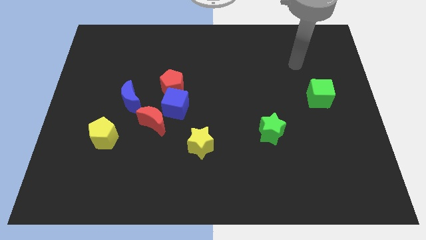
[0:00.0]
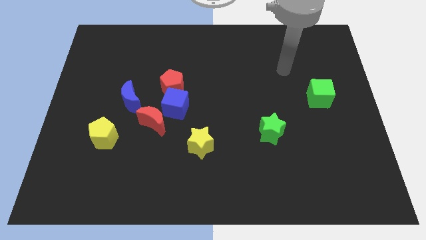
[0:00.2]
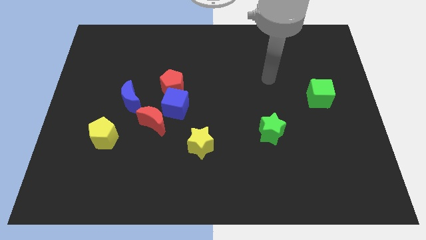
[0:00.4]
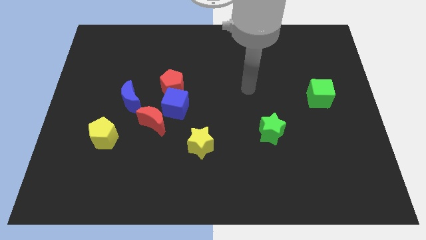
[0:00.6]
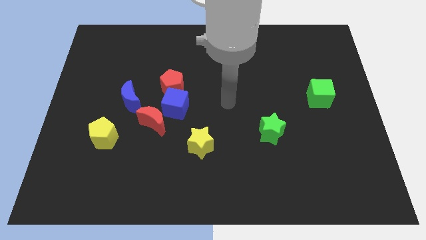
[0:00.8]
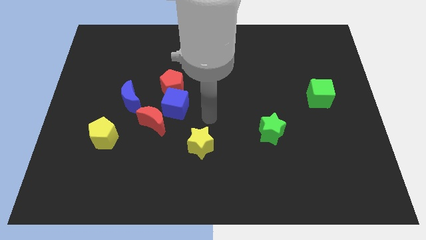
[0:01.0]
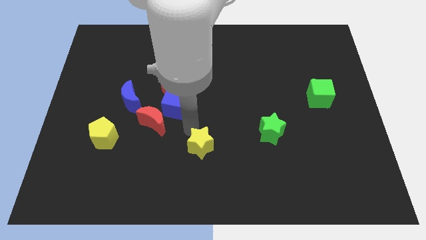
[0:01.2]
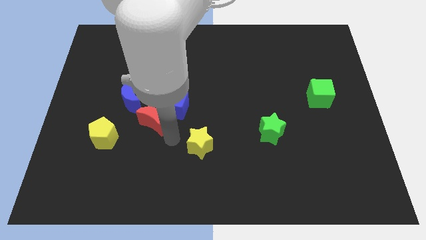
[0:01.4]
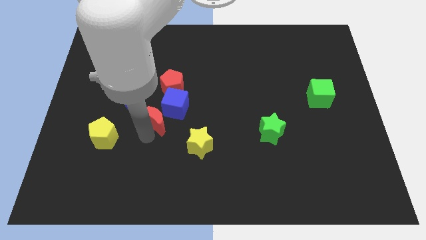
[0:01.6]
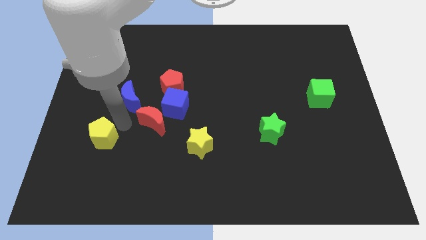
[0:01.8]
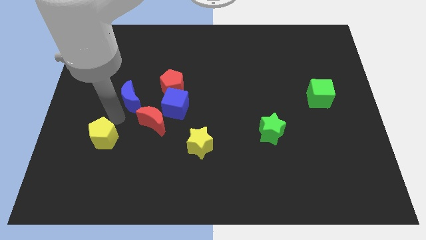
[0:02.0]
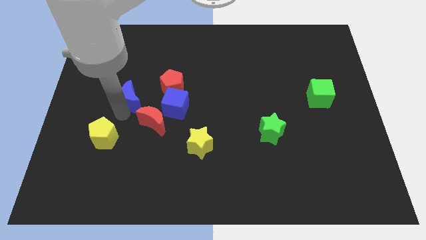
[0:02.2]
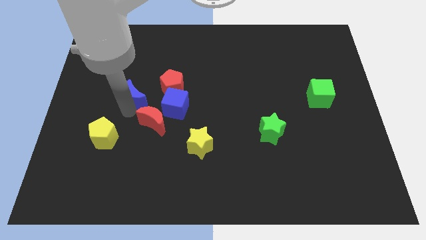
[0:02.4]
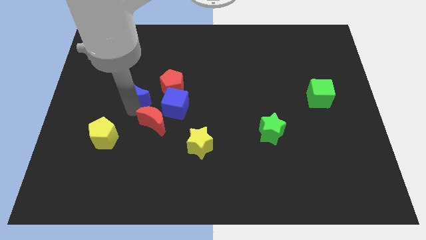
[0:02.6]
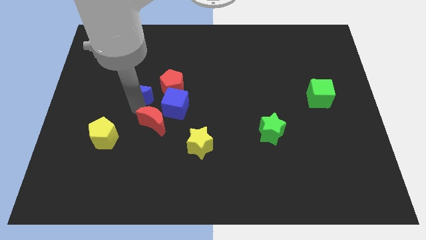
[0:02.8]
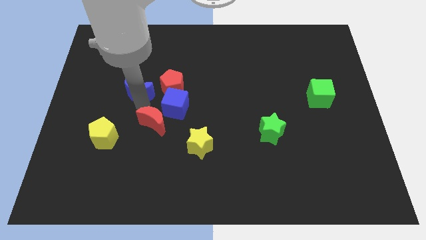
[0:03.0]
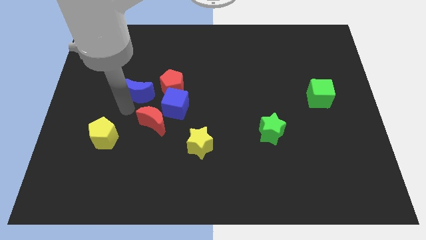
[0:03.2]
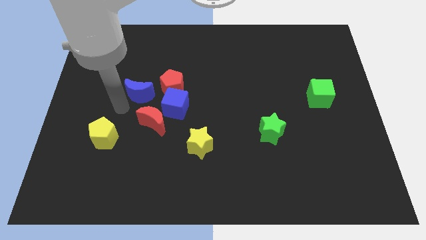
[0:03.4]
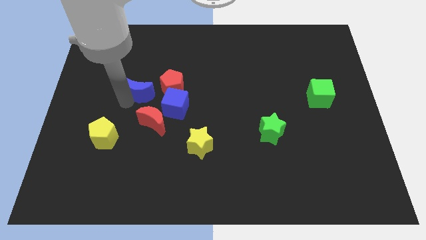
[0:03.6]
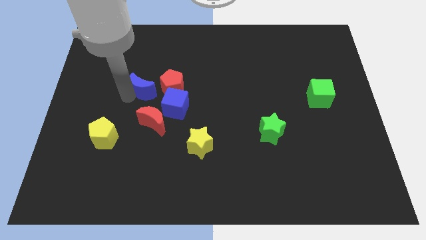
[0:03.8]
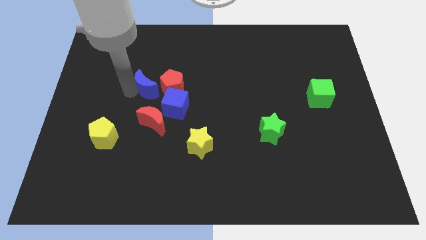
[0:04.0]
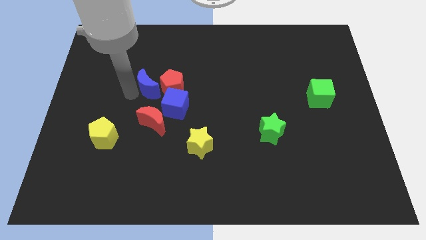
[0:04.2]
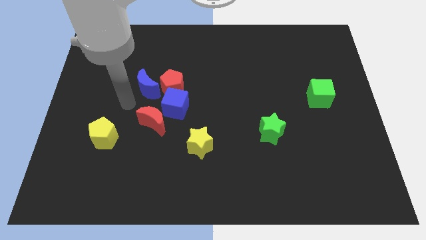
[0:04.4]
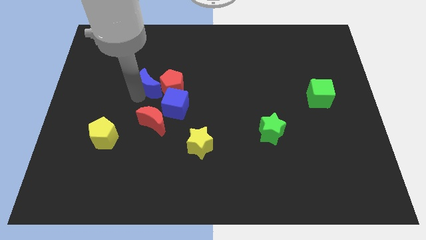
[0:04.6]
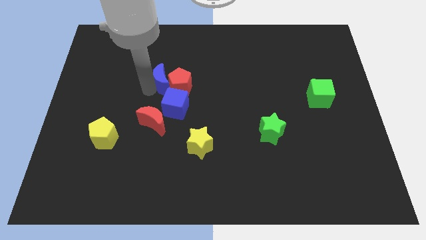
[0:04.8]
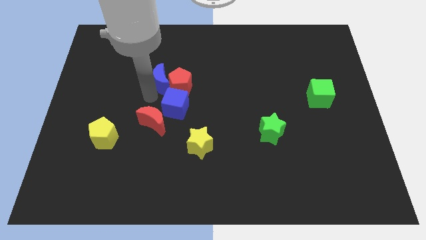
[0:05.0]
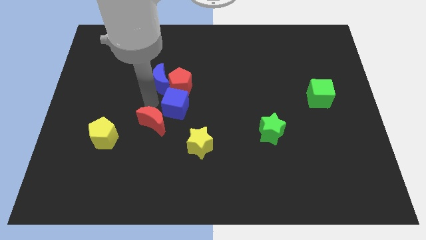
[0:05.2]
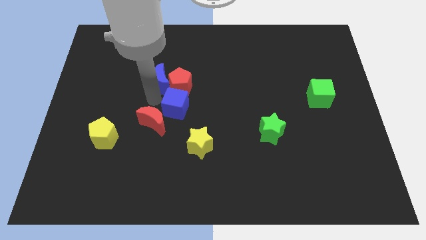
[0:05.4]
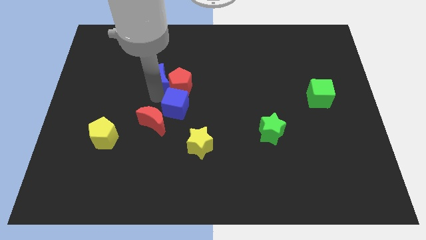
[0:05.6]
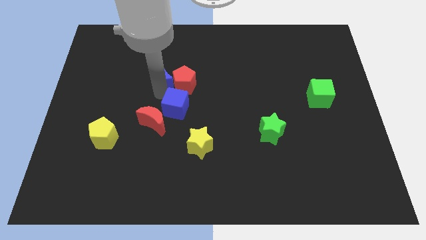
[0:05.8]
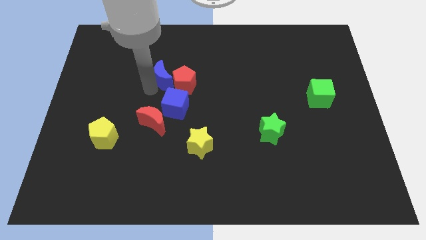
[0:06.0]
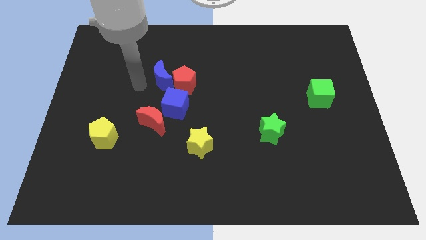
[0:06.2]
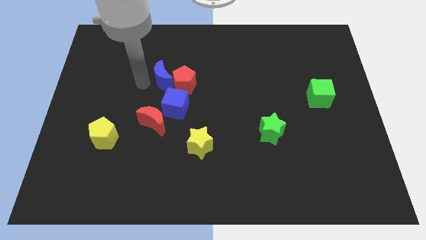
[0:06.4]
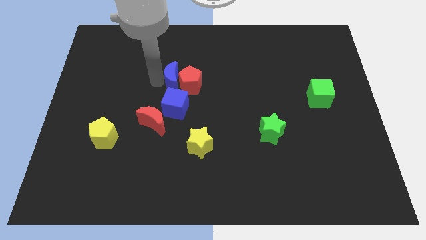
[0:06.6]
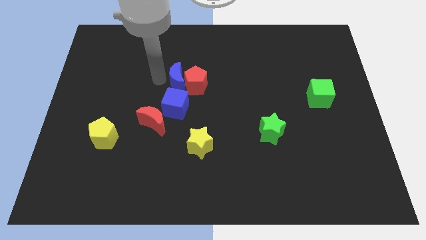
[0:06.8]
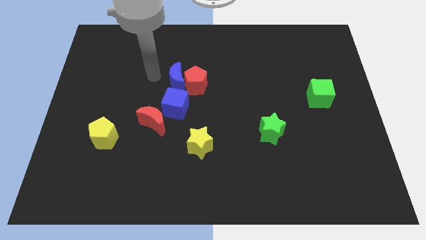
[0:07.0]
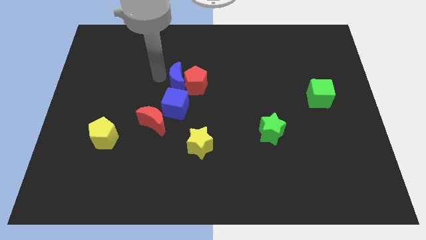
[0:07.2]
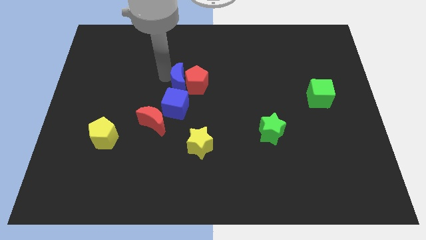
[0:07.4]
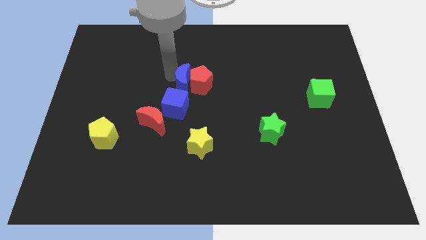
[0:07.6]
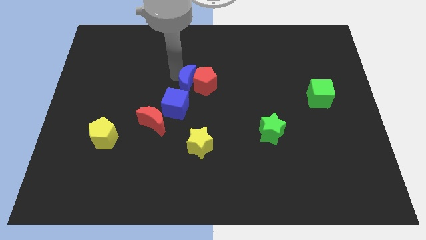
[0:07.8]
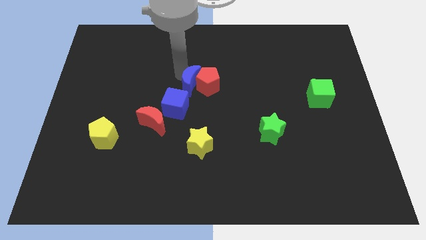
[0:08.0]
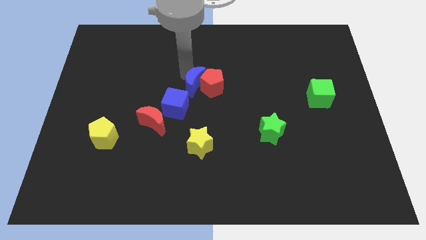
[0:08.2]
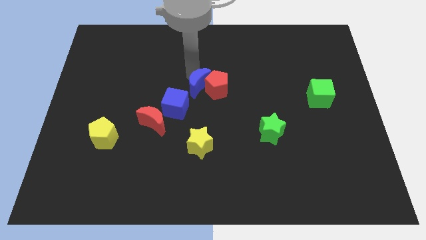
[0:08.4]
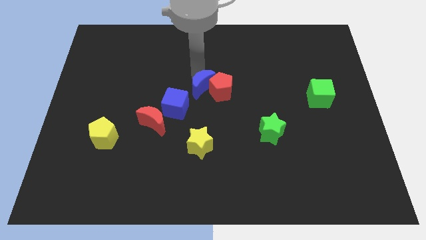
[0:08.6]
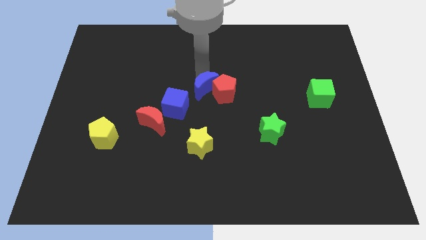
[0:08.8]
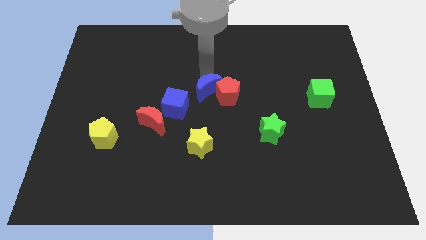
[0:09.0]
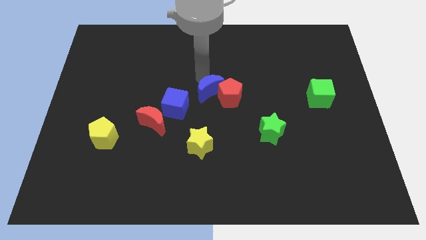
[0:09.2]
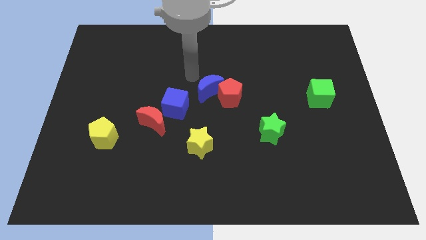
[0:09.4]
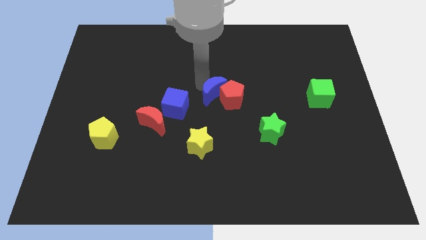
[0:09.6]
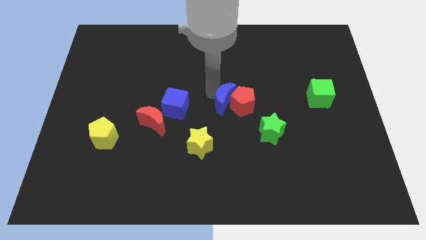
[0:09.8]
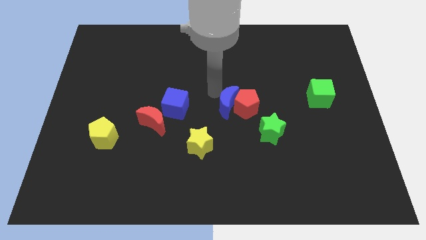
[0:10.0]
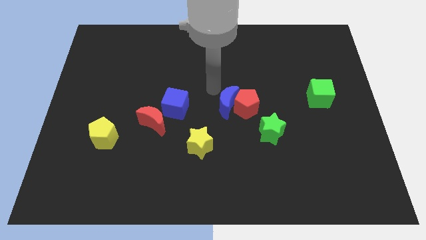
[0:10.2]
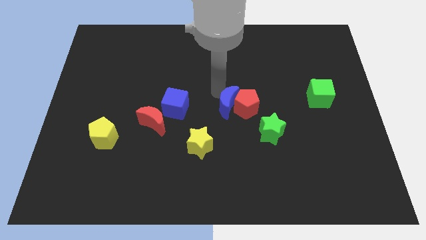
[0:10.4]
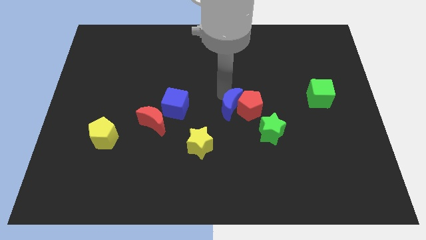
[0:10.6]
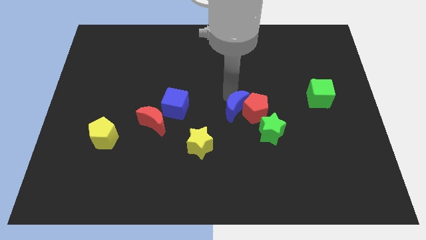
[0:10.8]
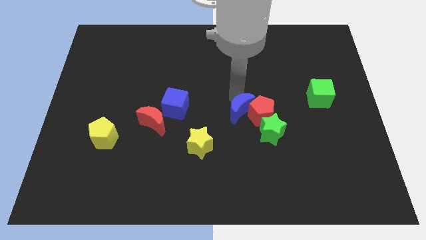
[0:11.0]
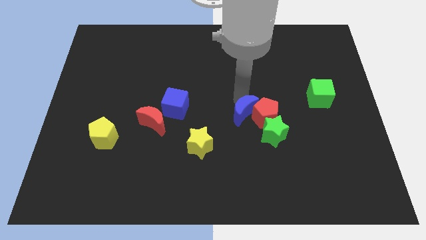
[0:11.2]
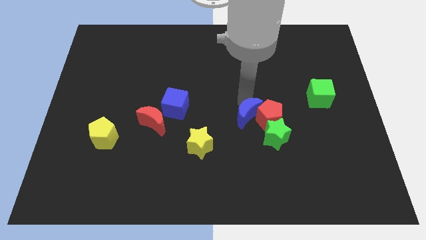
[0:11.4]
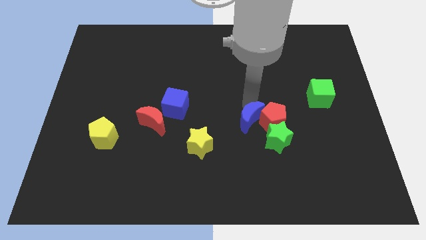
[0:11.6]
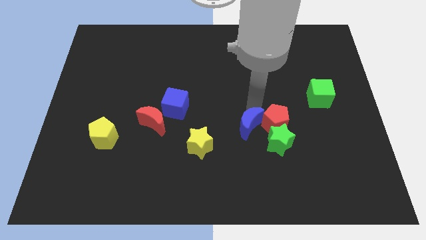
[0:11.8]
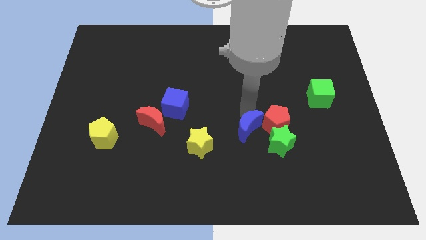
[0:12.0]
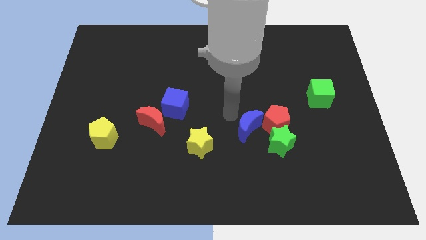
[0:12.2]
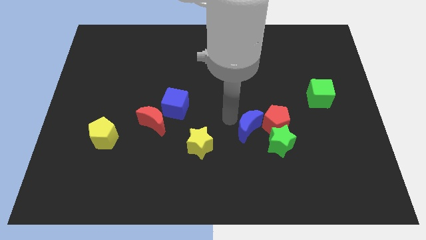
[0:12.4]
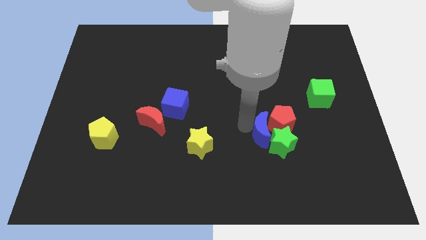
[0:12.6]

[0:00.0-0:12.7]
put the blue moon to the green star

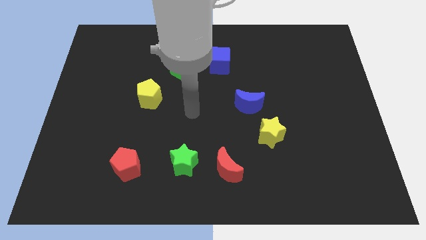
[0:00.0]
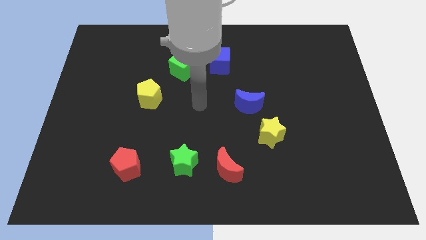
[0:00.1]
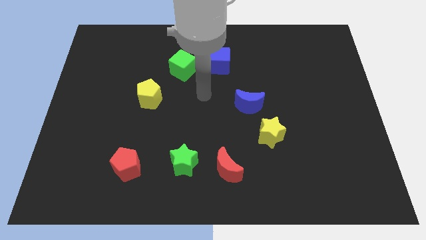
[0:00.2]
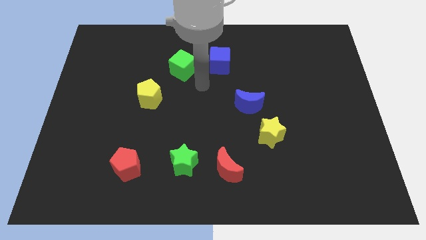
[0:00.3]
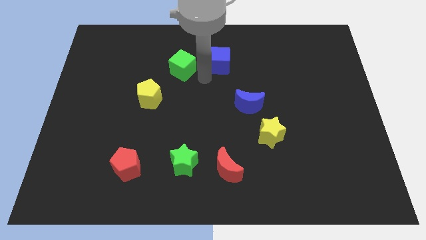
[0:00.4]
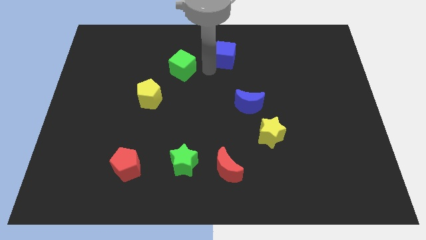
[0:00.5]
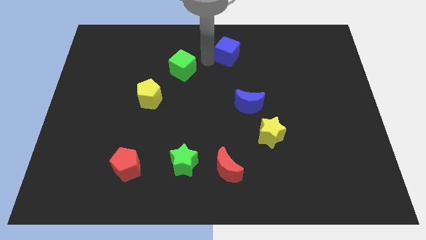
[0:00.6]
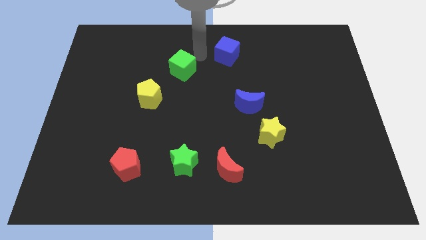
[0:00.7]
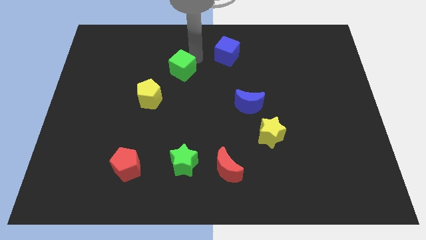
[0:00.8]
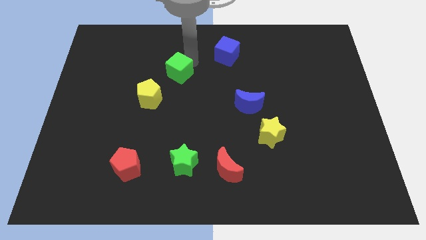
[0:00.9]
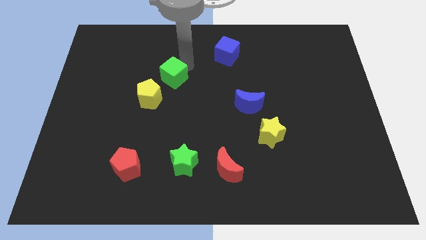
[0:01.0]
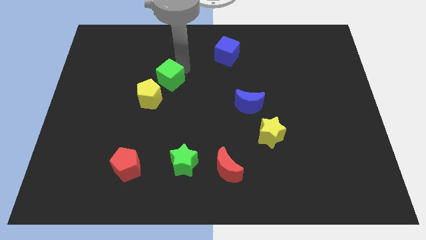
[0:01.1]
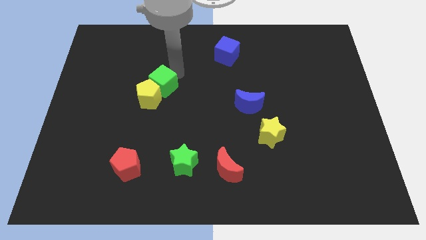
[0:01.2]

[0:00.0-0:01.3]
put the green cube close to the yellow pentagon
